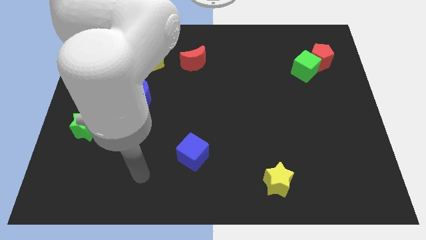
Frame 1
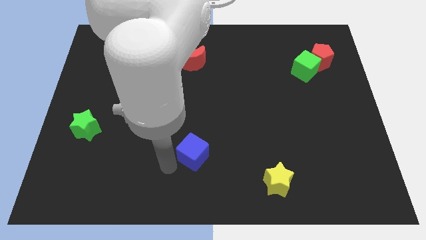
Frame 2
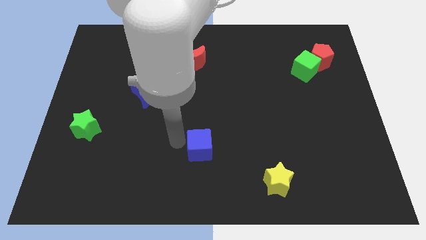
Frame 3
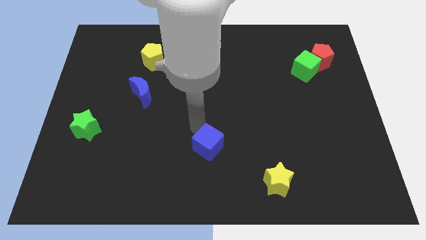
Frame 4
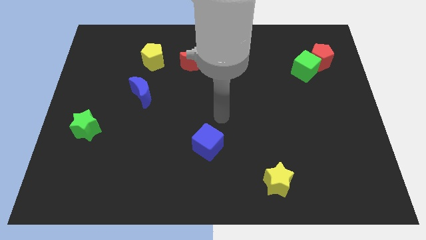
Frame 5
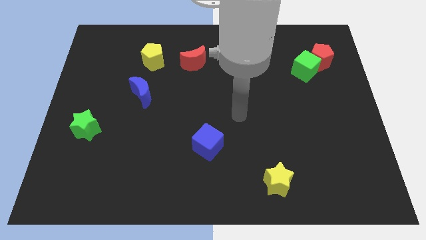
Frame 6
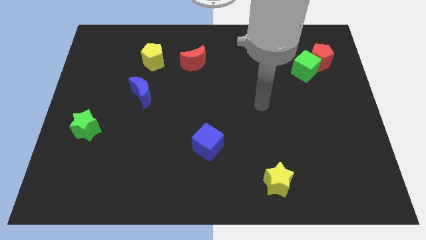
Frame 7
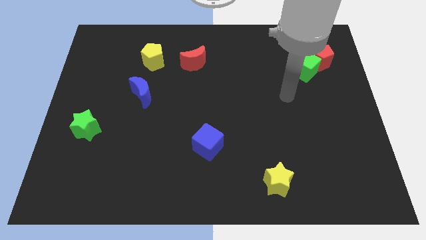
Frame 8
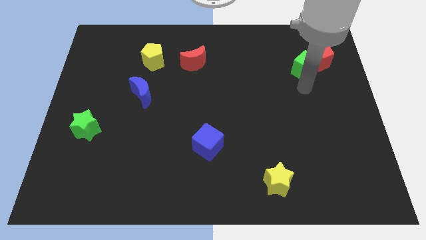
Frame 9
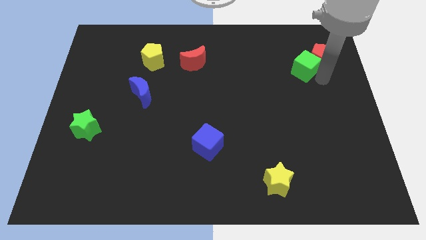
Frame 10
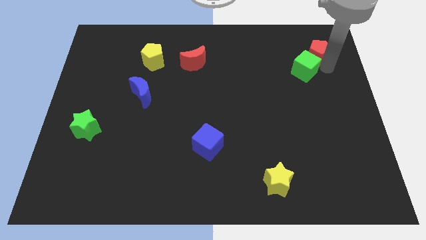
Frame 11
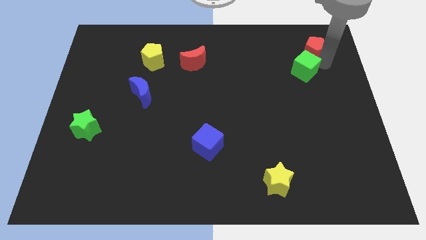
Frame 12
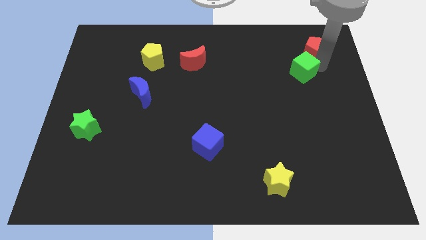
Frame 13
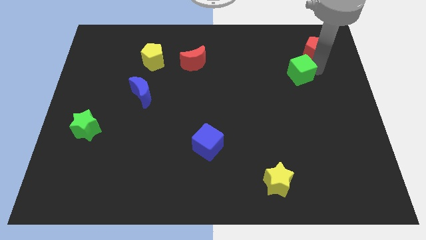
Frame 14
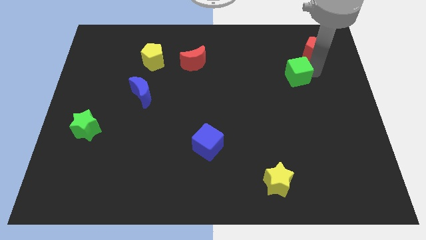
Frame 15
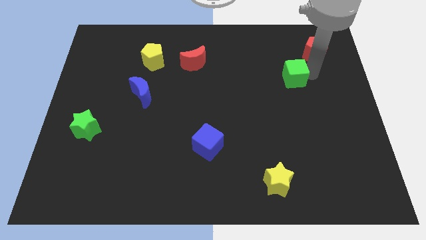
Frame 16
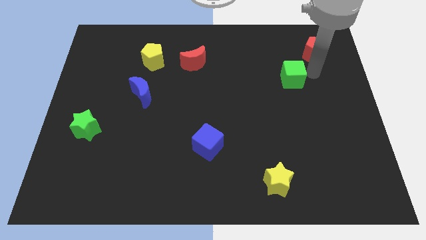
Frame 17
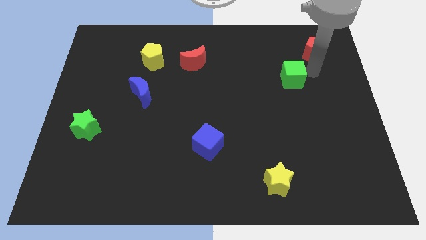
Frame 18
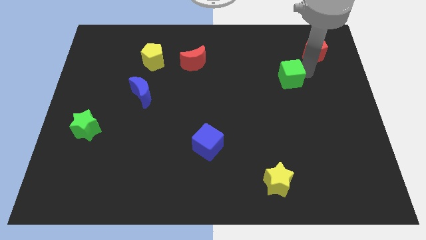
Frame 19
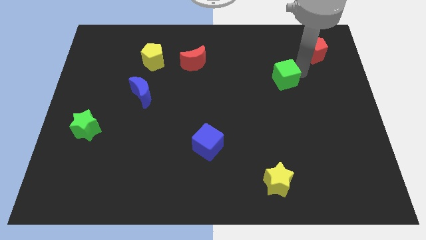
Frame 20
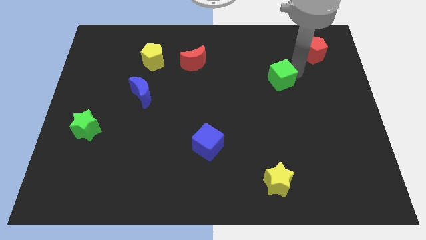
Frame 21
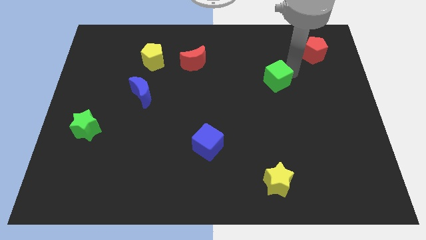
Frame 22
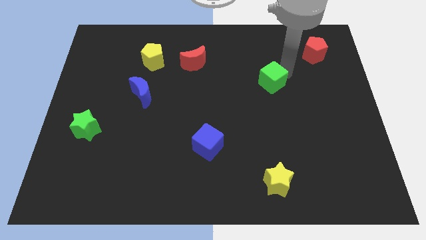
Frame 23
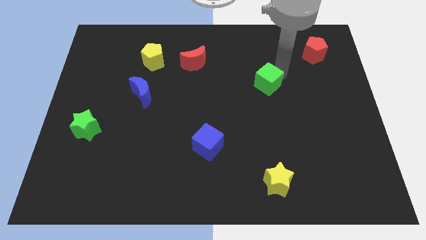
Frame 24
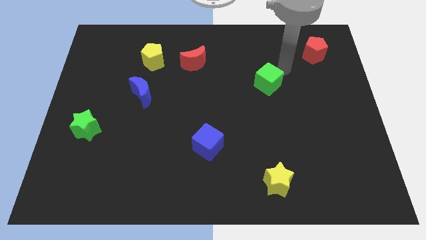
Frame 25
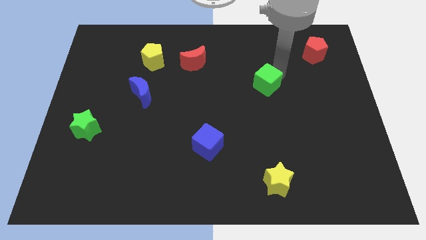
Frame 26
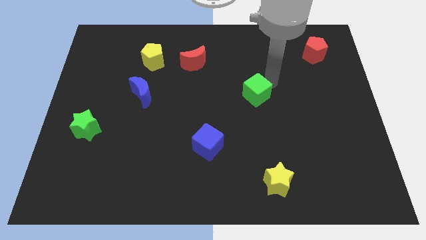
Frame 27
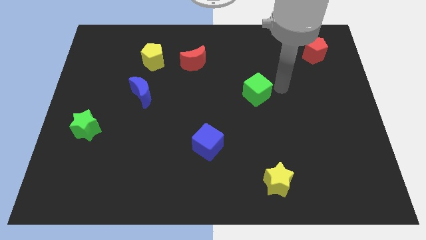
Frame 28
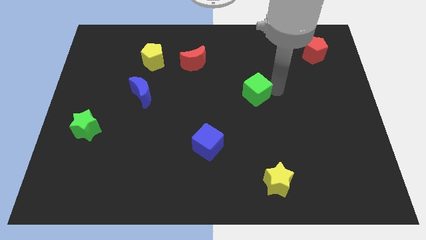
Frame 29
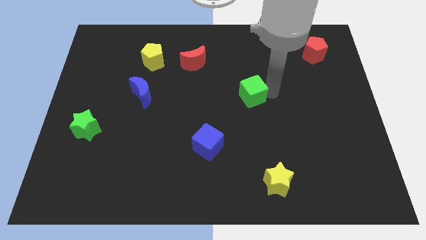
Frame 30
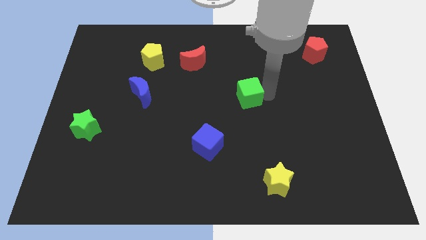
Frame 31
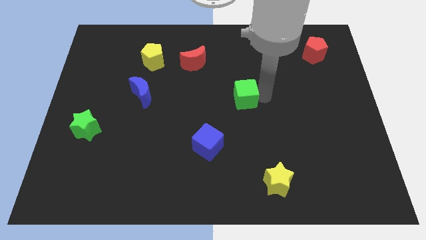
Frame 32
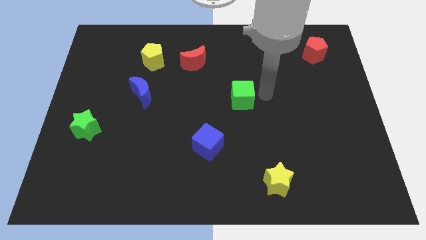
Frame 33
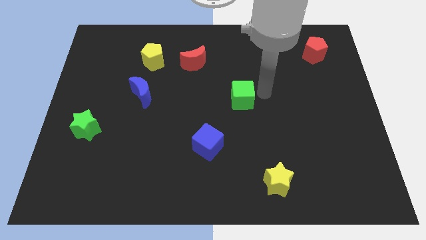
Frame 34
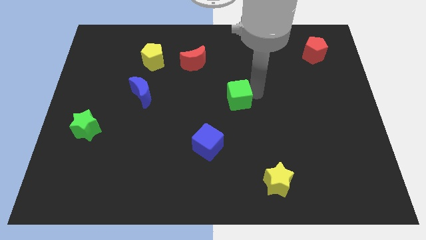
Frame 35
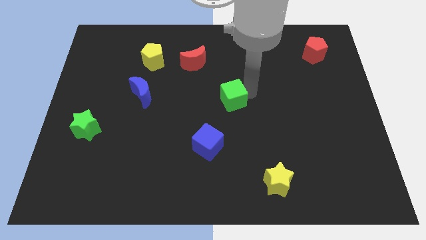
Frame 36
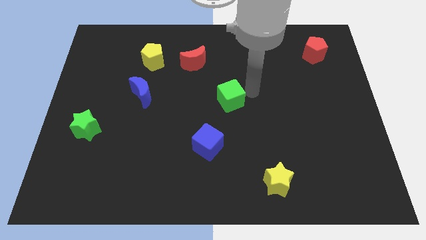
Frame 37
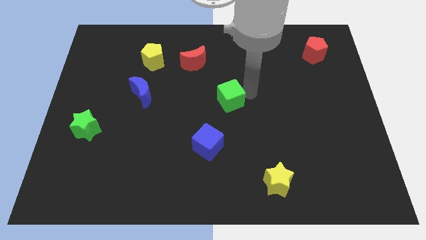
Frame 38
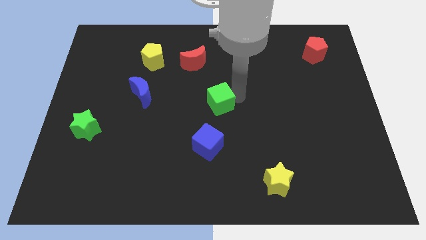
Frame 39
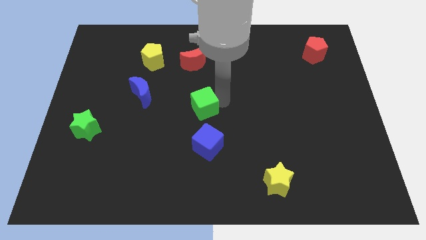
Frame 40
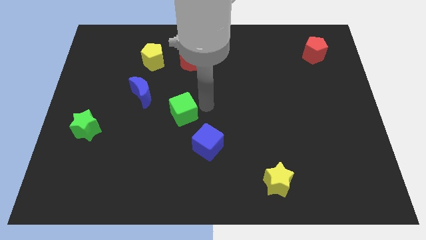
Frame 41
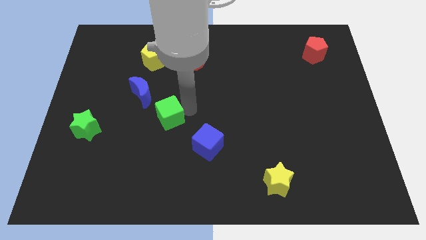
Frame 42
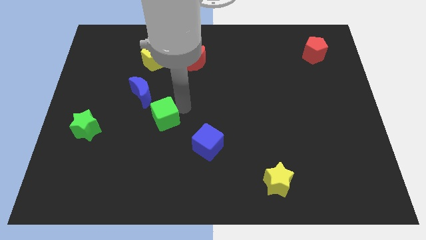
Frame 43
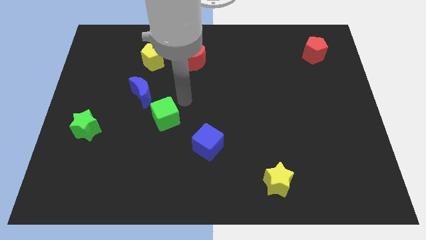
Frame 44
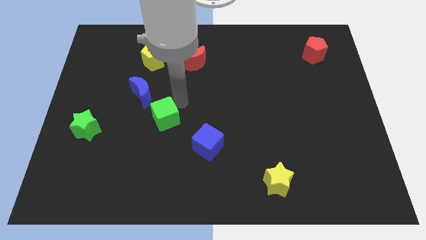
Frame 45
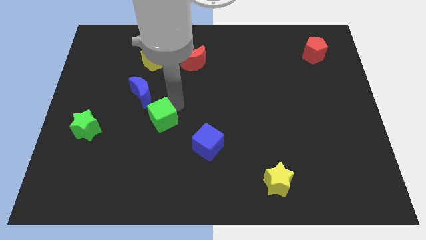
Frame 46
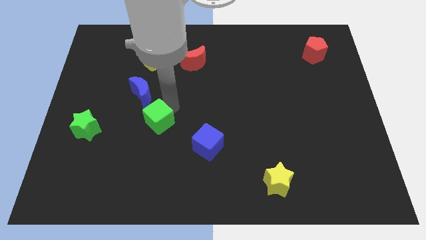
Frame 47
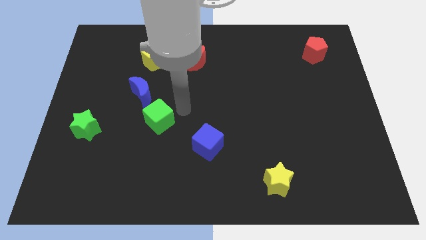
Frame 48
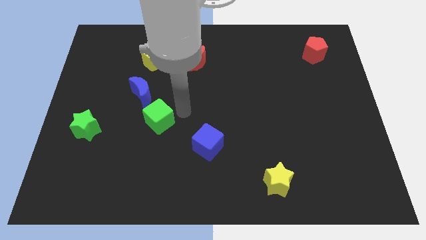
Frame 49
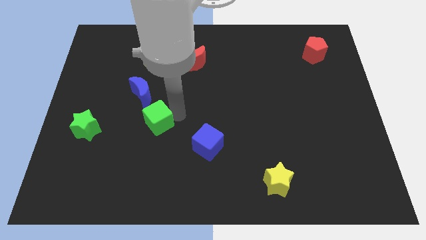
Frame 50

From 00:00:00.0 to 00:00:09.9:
slide the green cube just right of the green star

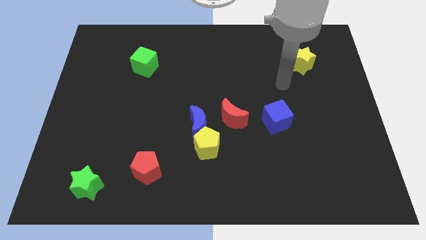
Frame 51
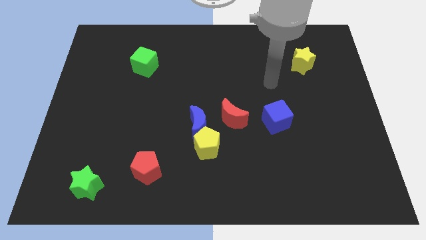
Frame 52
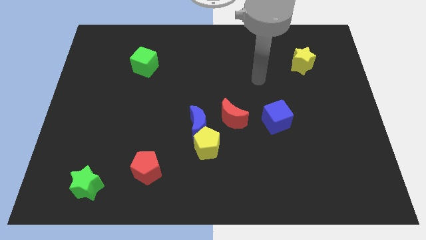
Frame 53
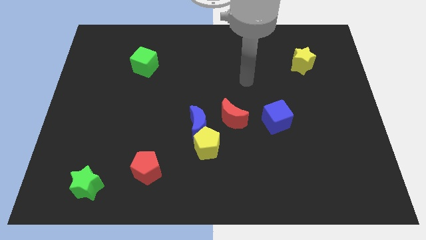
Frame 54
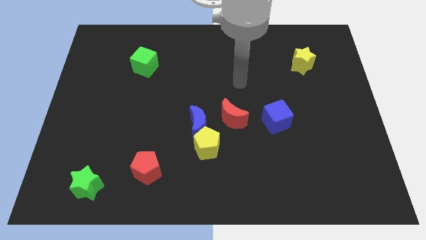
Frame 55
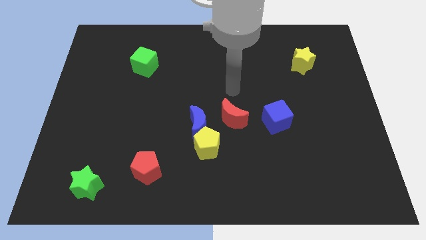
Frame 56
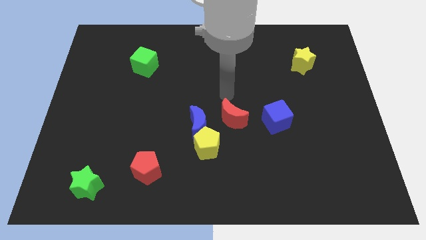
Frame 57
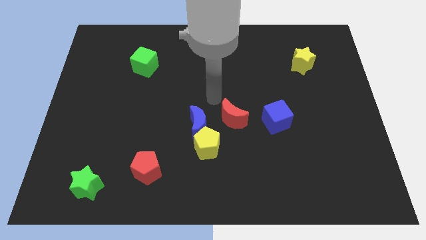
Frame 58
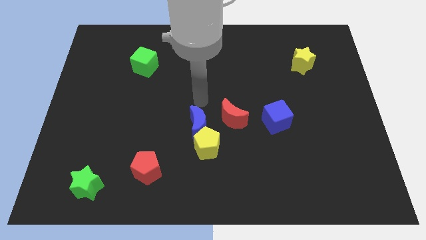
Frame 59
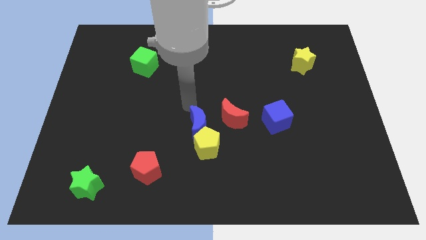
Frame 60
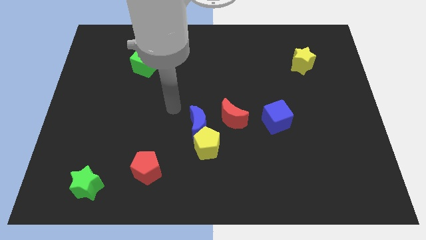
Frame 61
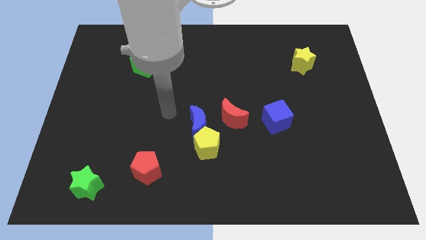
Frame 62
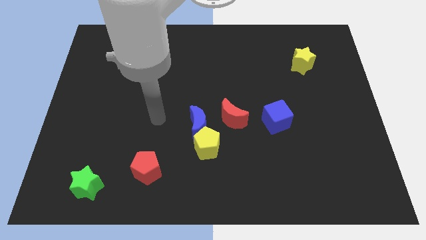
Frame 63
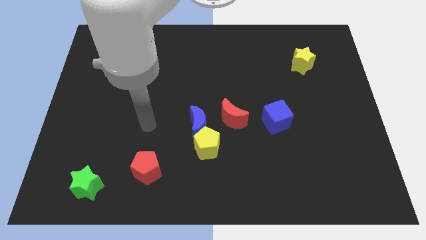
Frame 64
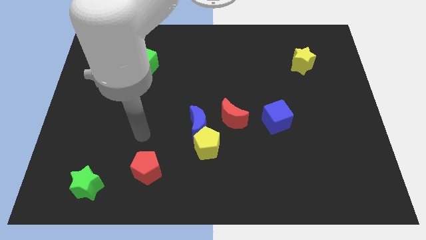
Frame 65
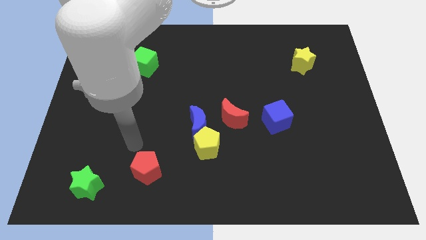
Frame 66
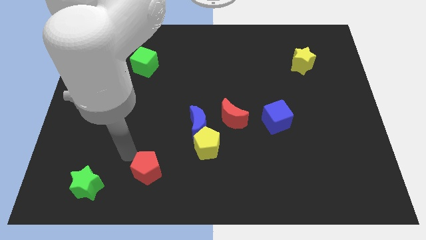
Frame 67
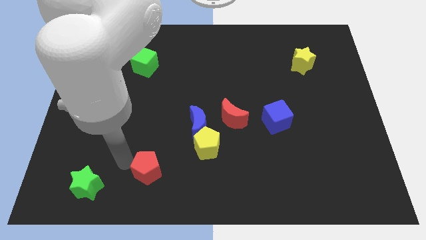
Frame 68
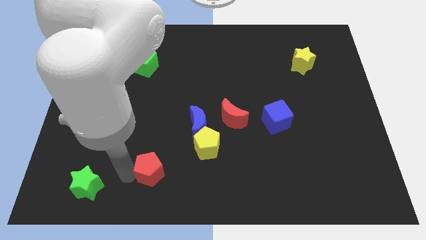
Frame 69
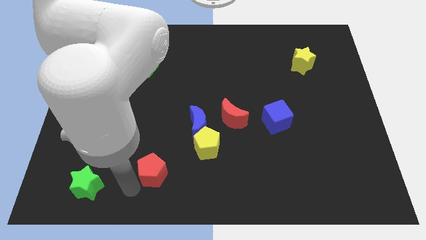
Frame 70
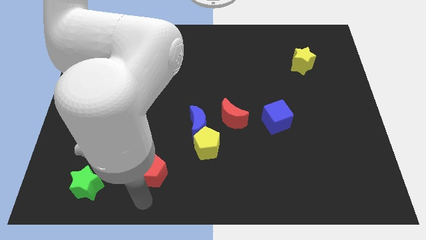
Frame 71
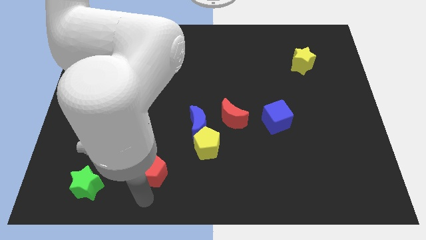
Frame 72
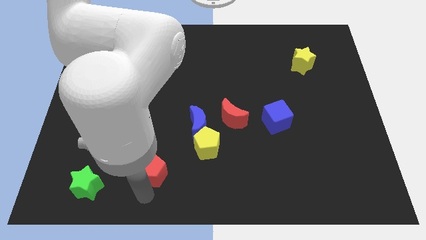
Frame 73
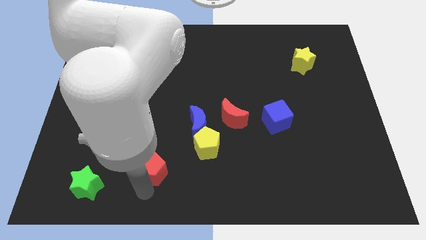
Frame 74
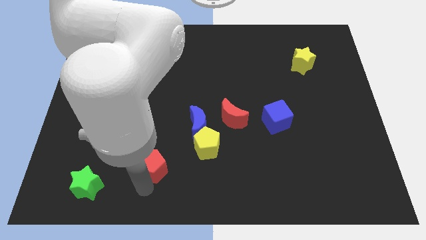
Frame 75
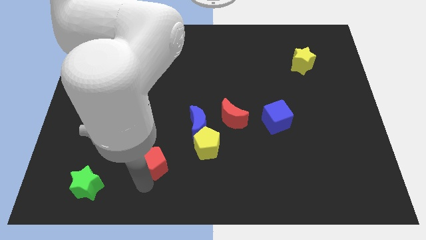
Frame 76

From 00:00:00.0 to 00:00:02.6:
push the red pentagon left of the yellow pentagon
